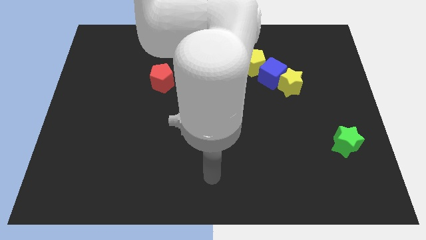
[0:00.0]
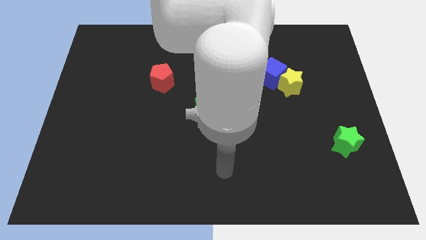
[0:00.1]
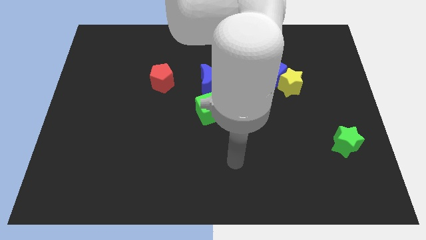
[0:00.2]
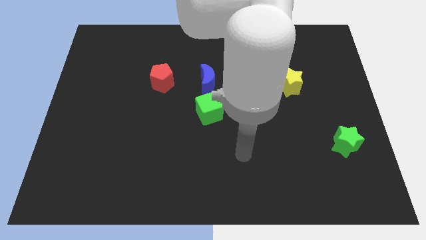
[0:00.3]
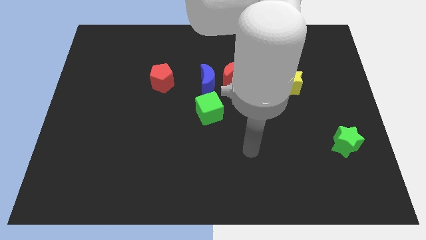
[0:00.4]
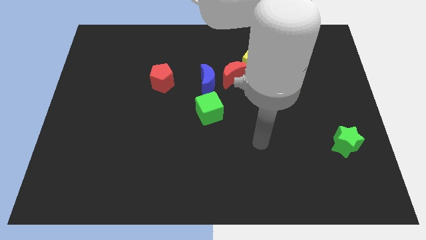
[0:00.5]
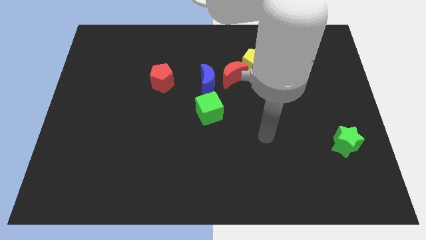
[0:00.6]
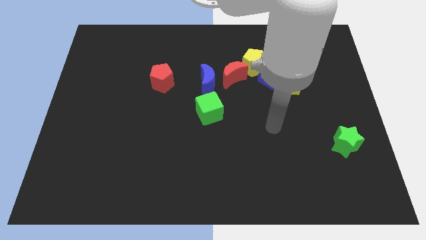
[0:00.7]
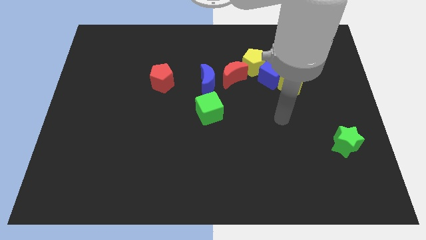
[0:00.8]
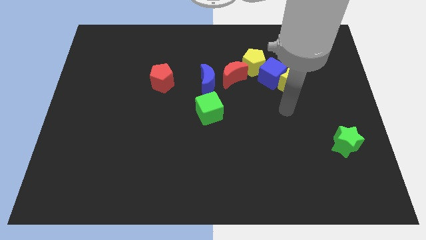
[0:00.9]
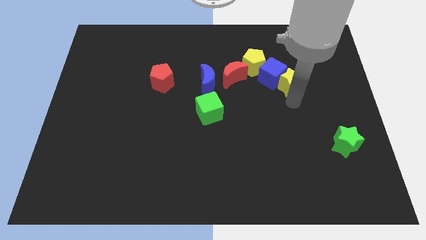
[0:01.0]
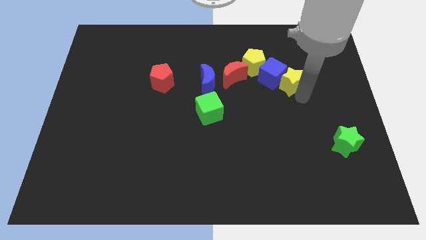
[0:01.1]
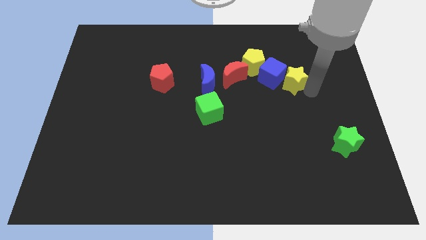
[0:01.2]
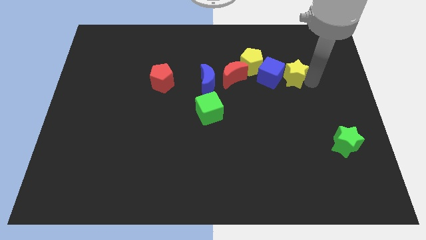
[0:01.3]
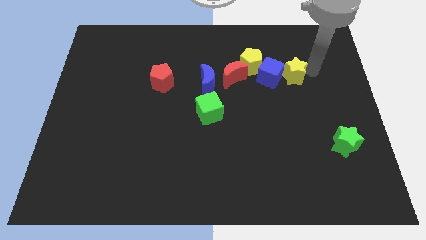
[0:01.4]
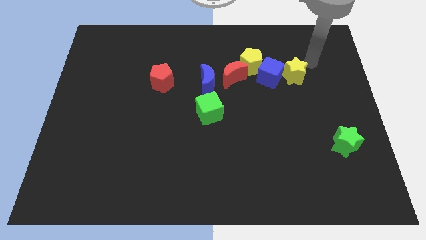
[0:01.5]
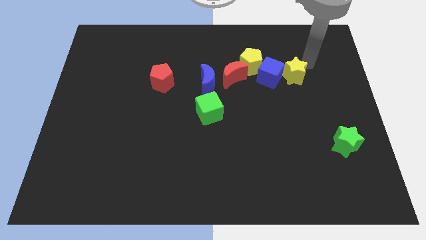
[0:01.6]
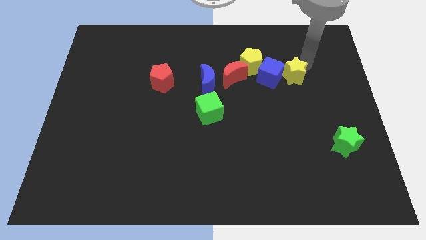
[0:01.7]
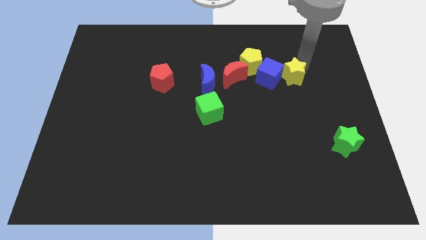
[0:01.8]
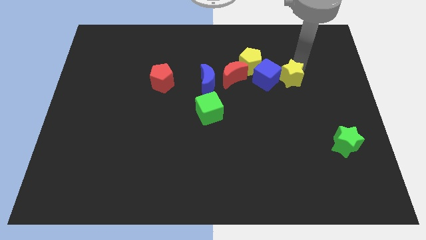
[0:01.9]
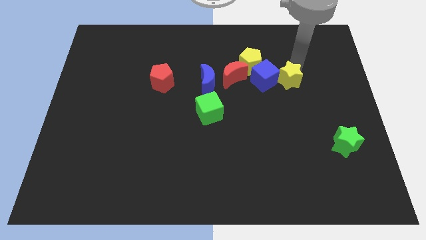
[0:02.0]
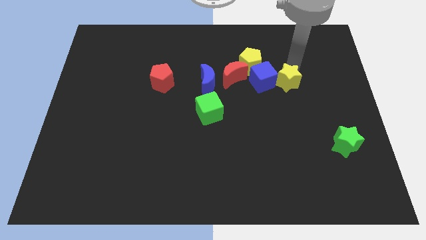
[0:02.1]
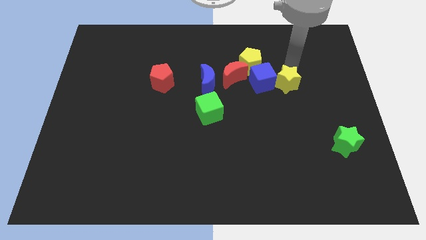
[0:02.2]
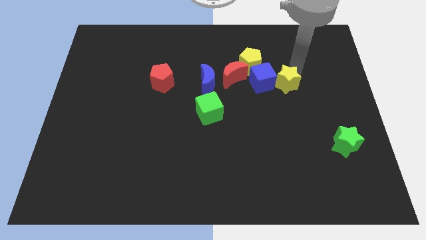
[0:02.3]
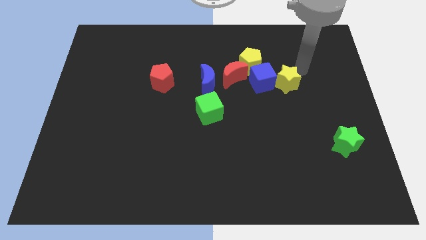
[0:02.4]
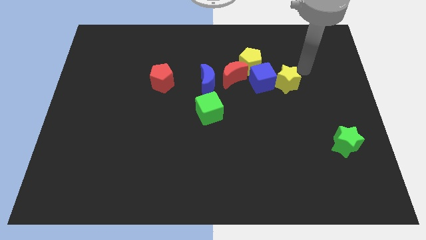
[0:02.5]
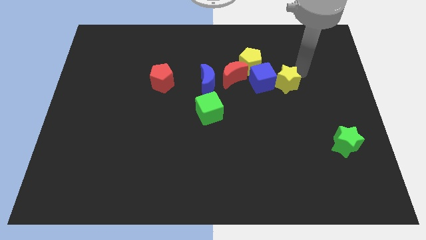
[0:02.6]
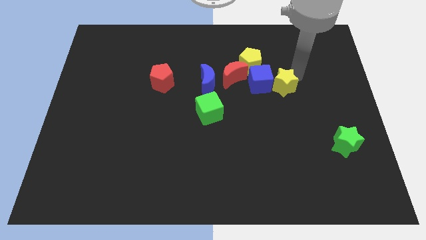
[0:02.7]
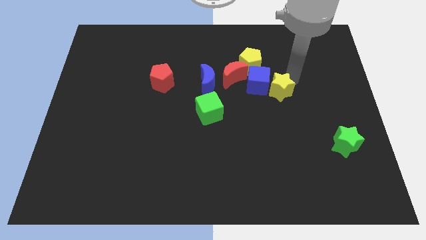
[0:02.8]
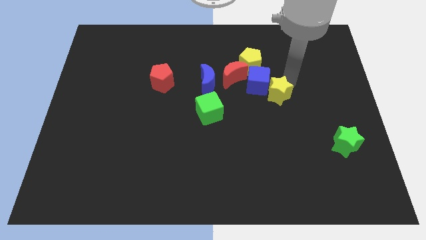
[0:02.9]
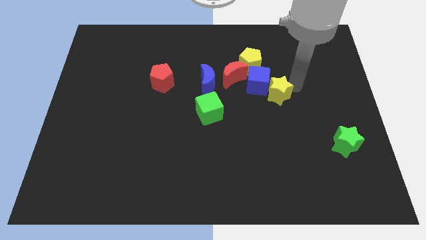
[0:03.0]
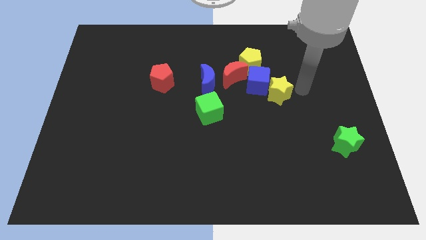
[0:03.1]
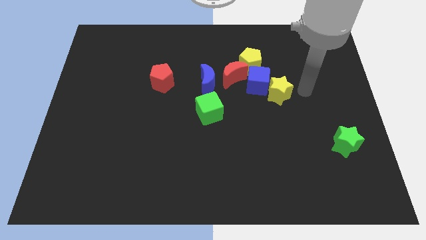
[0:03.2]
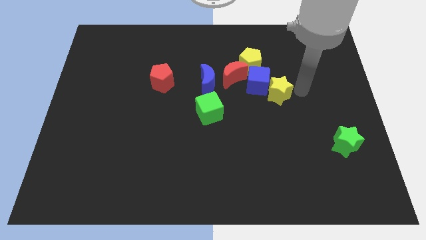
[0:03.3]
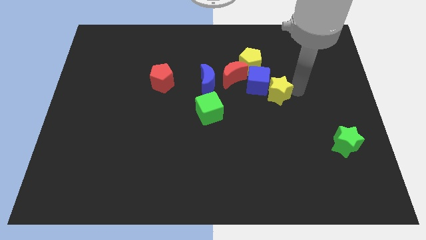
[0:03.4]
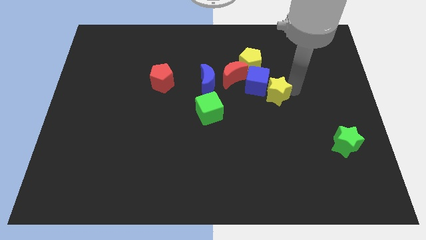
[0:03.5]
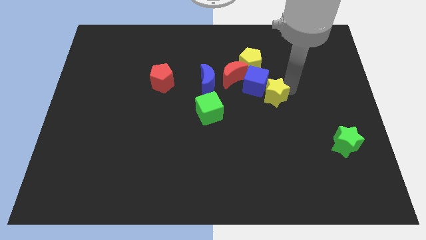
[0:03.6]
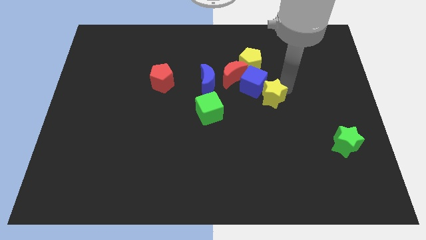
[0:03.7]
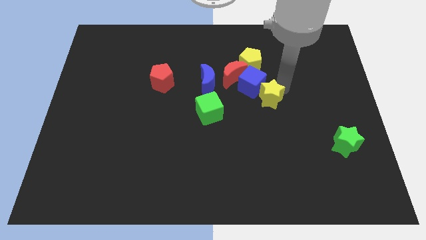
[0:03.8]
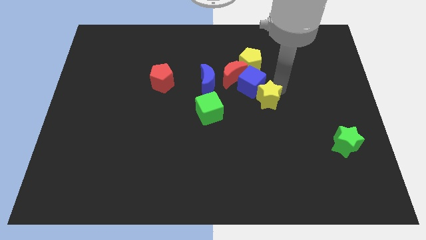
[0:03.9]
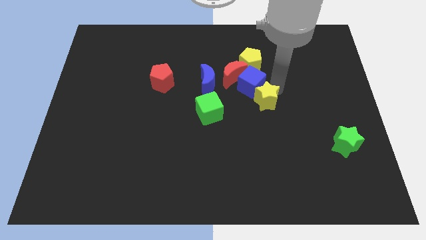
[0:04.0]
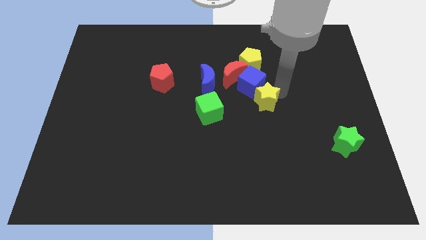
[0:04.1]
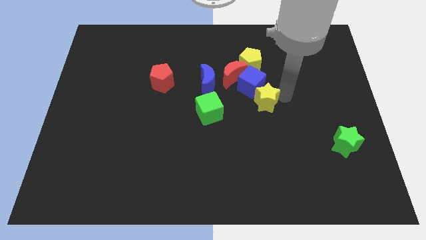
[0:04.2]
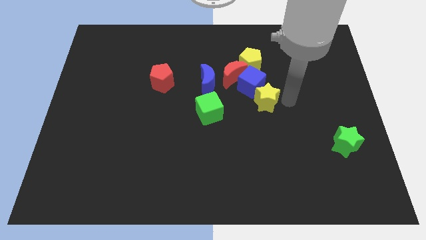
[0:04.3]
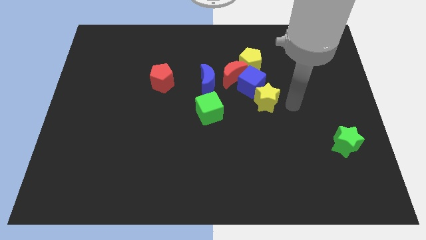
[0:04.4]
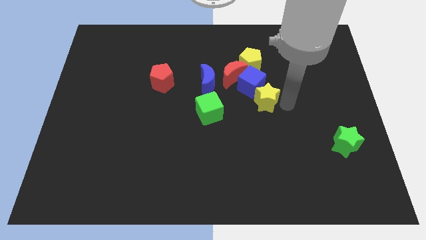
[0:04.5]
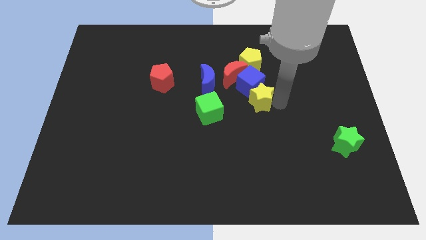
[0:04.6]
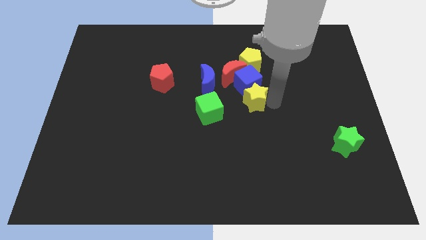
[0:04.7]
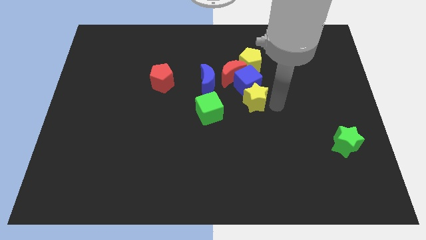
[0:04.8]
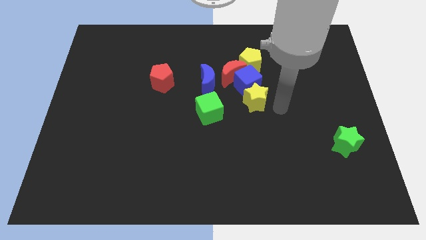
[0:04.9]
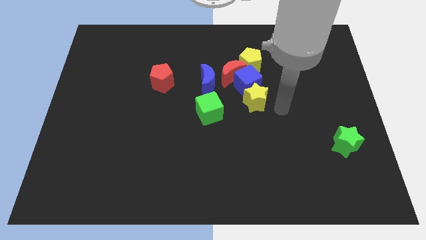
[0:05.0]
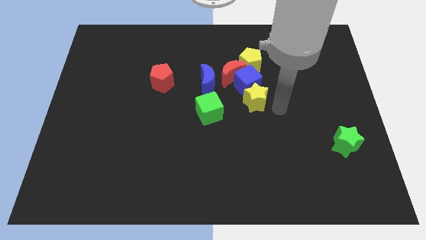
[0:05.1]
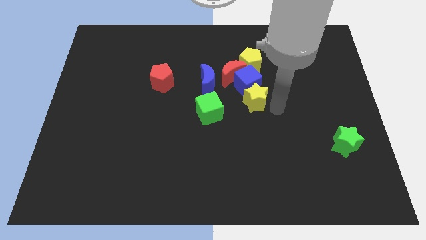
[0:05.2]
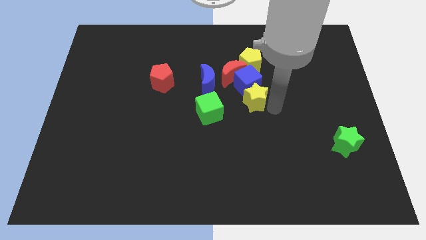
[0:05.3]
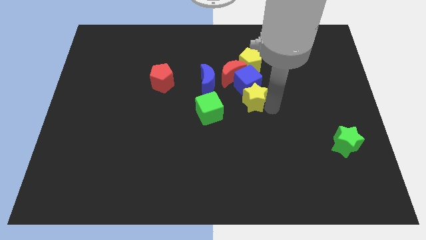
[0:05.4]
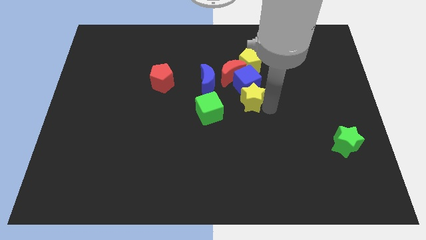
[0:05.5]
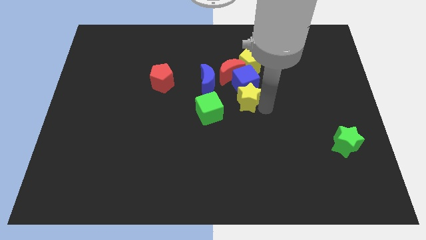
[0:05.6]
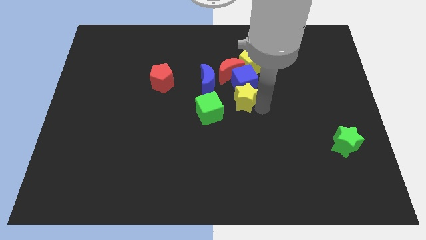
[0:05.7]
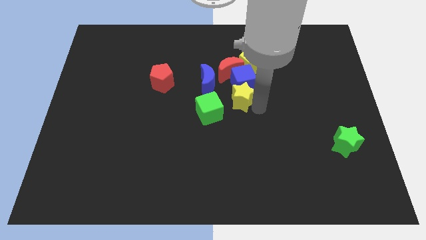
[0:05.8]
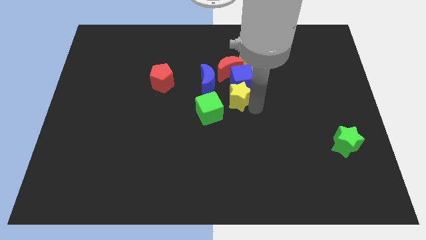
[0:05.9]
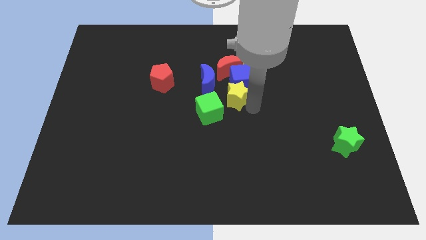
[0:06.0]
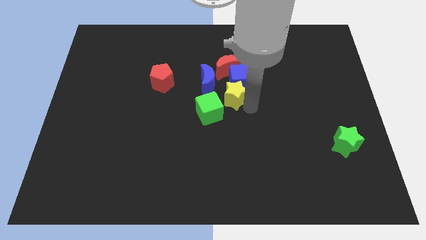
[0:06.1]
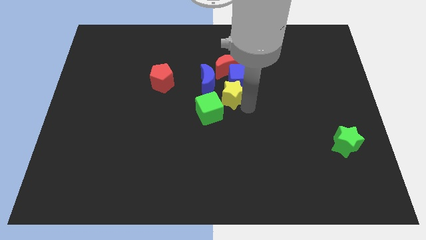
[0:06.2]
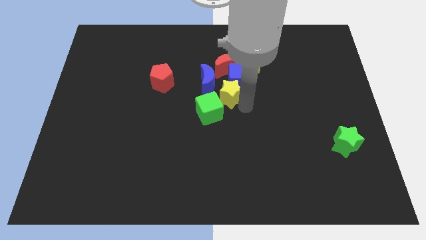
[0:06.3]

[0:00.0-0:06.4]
move the yellow star diagonally down and to the left of the yellow pentagon
